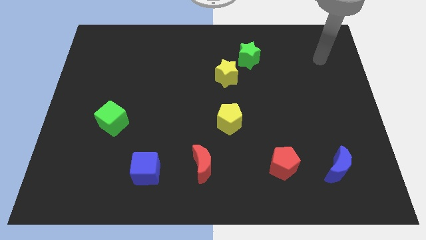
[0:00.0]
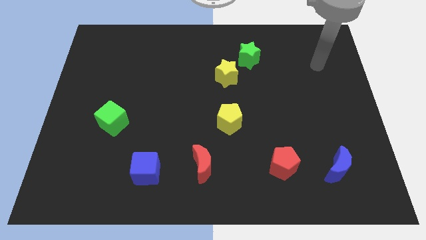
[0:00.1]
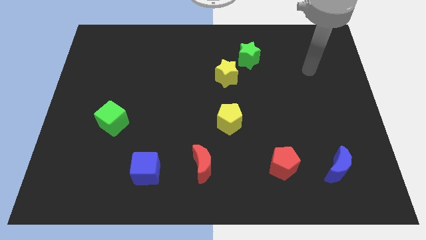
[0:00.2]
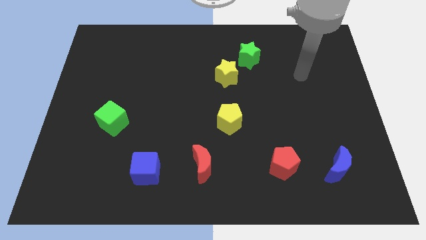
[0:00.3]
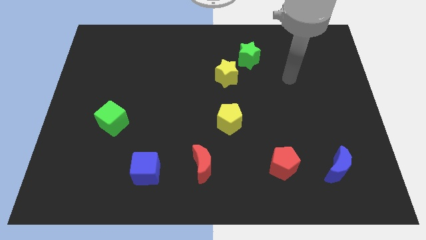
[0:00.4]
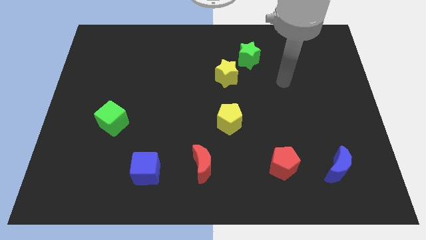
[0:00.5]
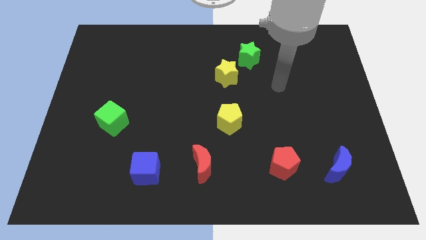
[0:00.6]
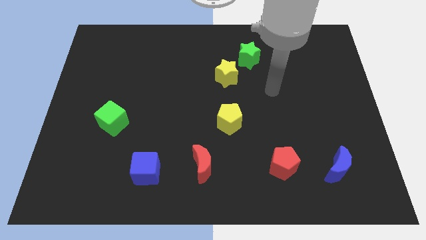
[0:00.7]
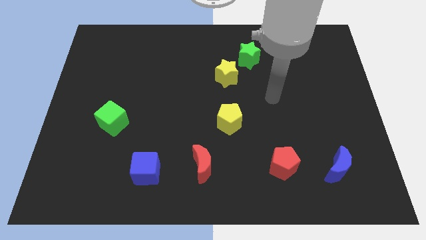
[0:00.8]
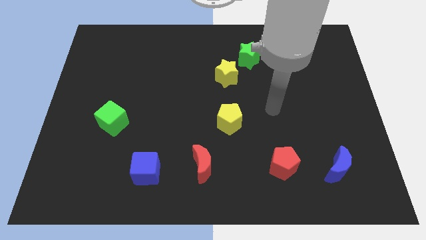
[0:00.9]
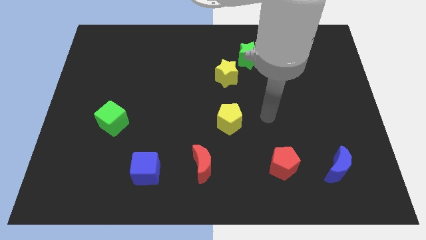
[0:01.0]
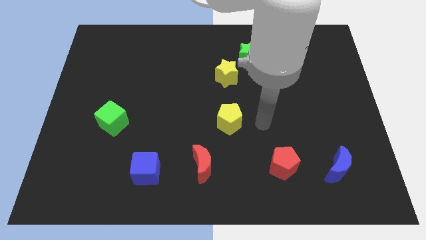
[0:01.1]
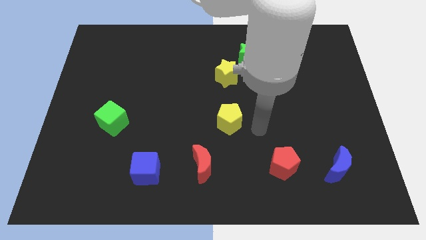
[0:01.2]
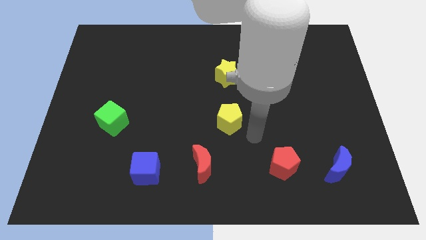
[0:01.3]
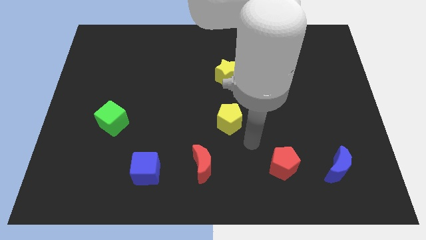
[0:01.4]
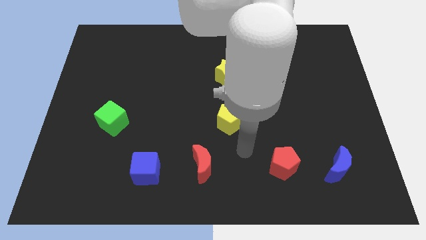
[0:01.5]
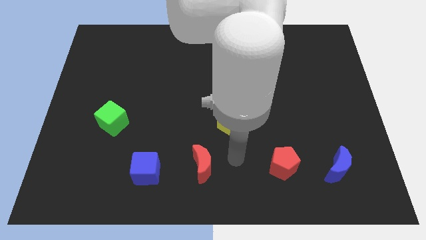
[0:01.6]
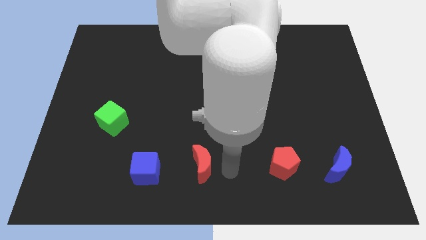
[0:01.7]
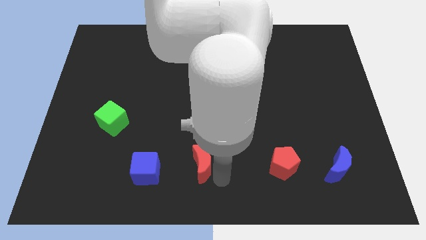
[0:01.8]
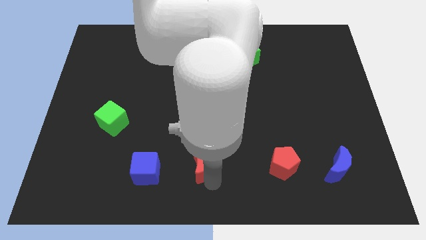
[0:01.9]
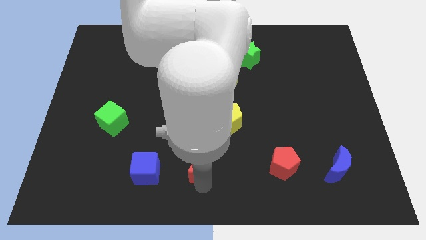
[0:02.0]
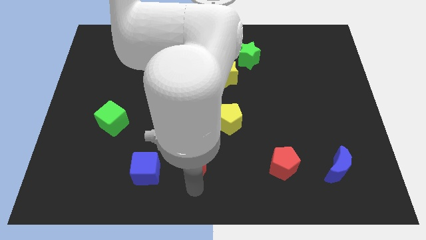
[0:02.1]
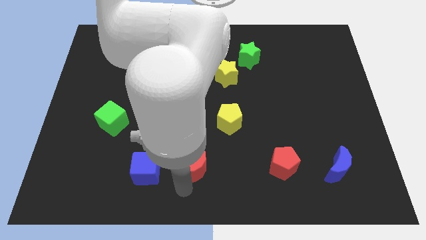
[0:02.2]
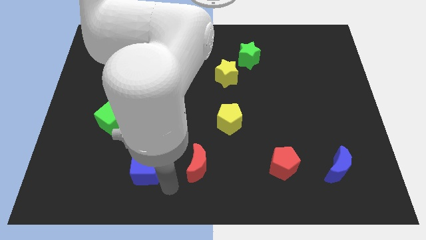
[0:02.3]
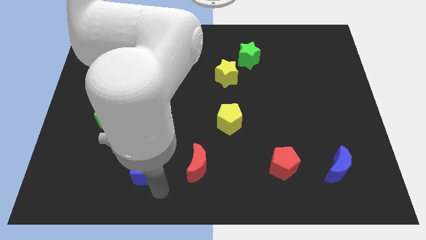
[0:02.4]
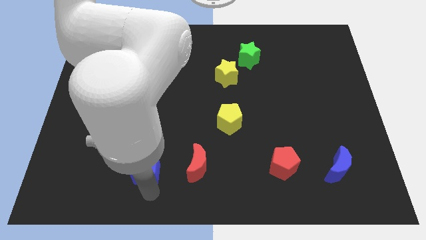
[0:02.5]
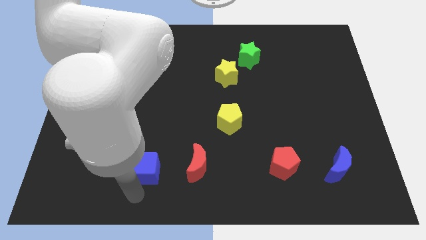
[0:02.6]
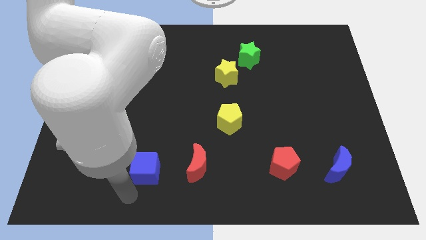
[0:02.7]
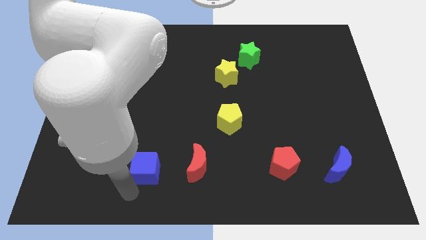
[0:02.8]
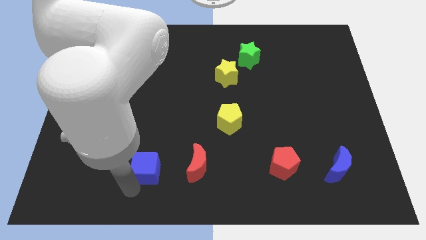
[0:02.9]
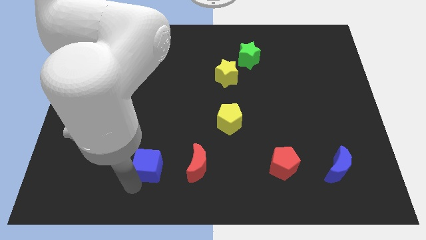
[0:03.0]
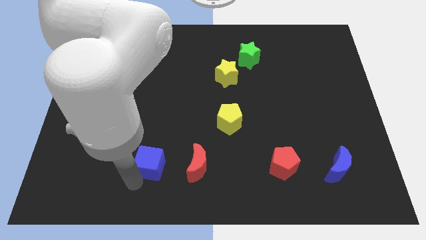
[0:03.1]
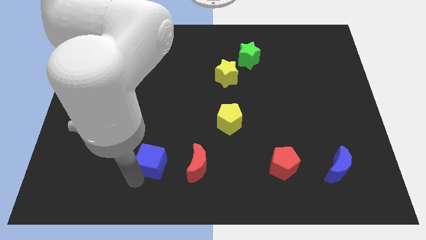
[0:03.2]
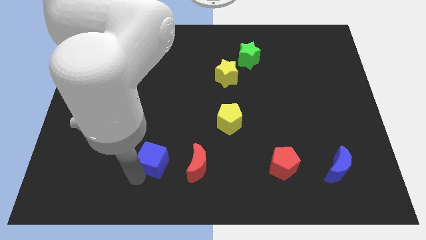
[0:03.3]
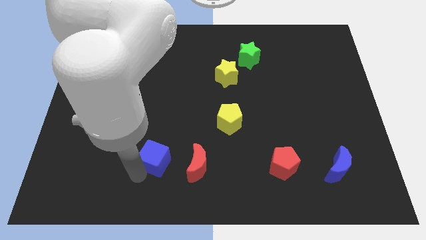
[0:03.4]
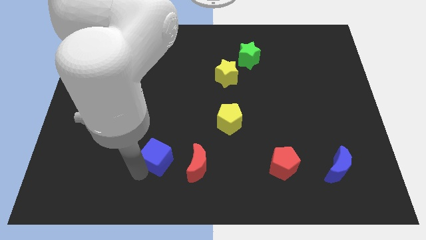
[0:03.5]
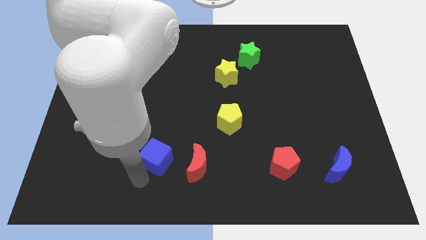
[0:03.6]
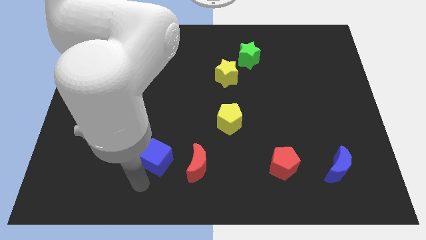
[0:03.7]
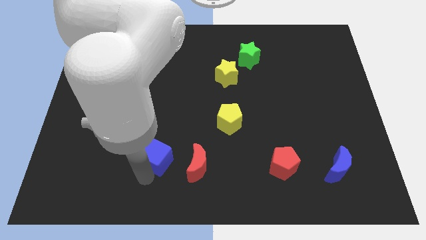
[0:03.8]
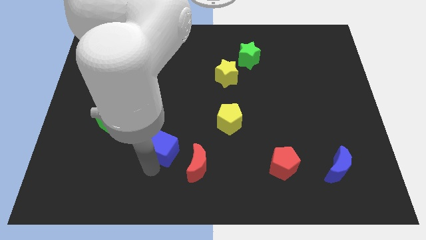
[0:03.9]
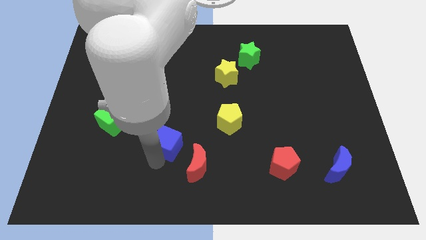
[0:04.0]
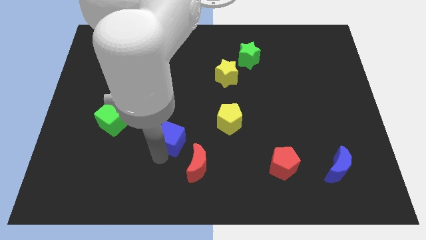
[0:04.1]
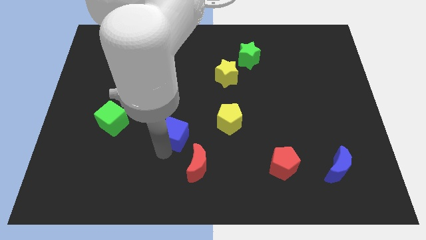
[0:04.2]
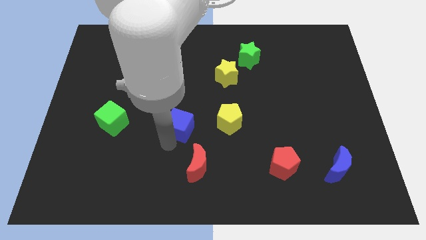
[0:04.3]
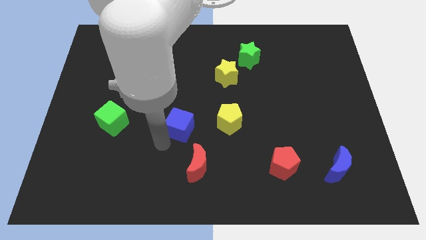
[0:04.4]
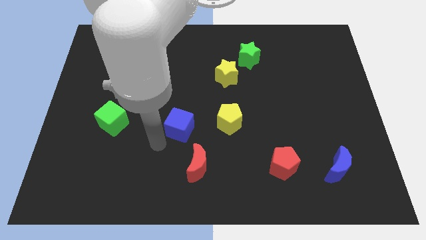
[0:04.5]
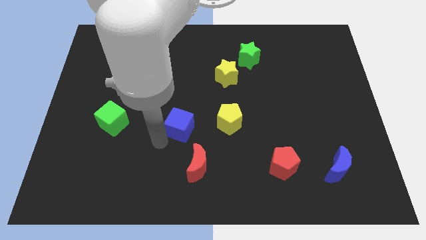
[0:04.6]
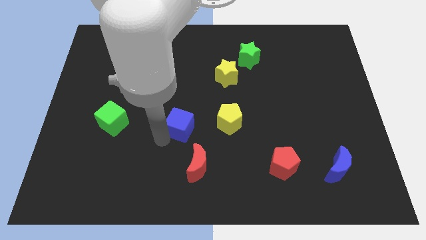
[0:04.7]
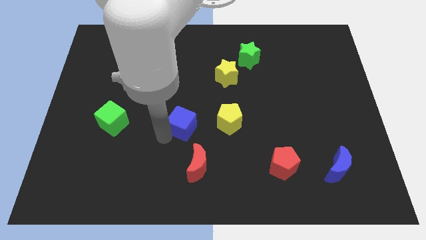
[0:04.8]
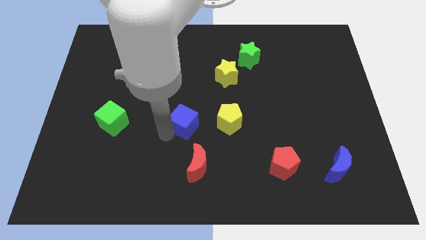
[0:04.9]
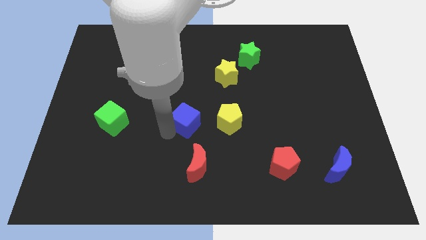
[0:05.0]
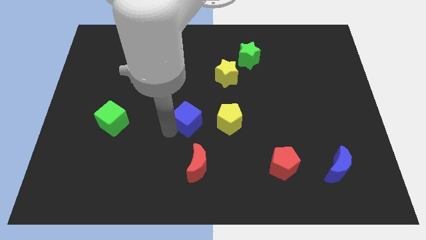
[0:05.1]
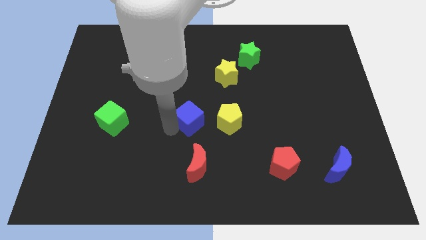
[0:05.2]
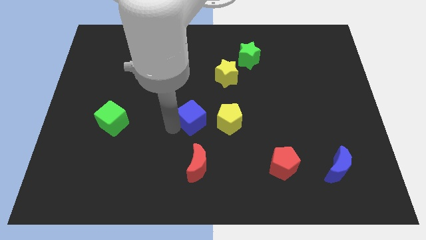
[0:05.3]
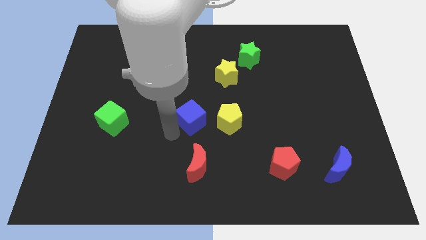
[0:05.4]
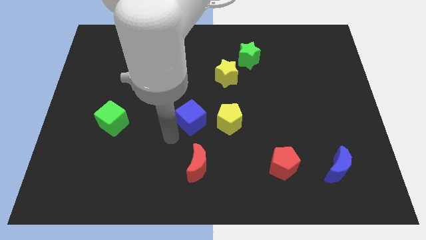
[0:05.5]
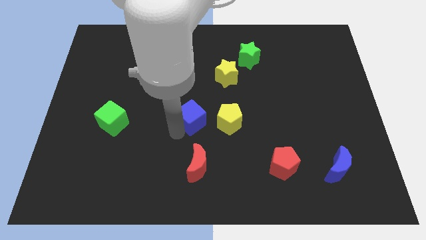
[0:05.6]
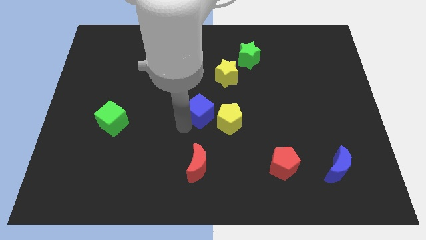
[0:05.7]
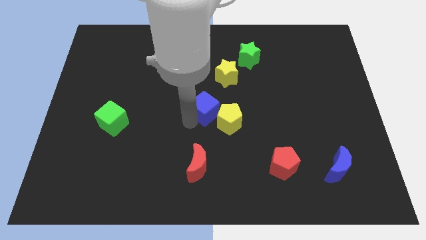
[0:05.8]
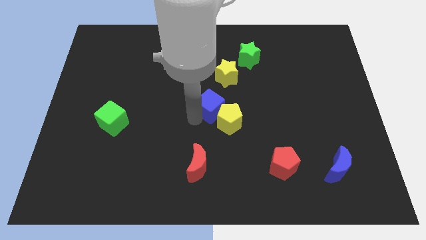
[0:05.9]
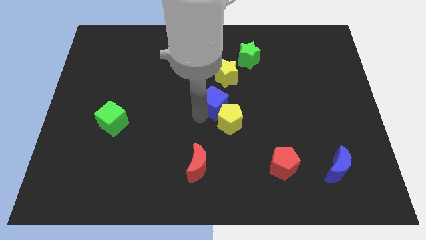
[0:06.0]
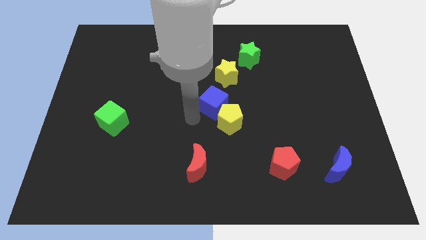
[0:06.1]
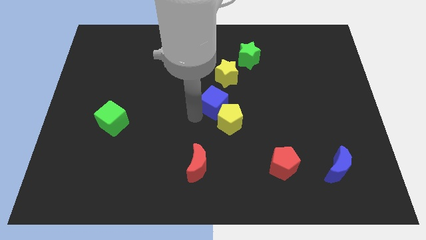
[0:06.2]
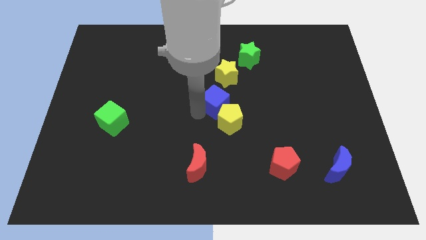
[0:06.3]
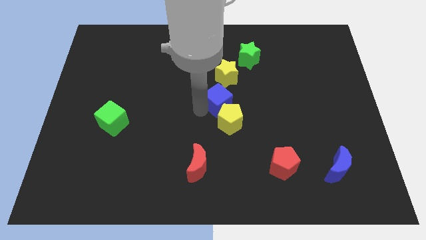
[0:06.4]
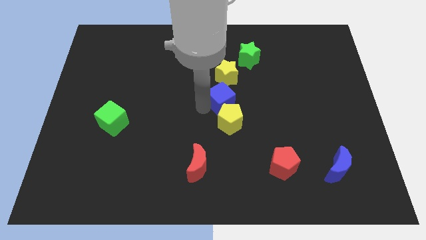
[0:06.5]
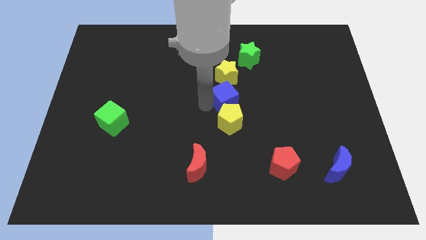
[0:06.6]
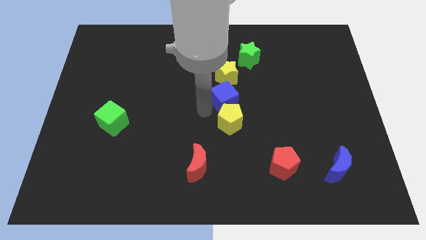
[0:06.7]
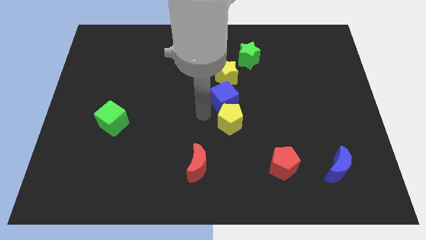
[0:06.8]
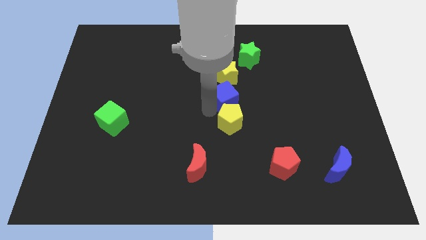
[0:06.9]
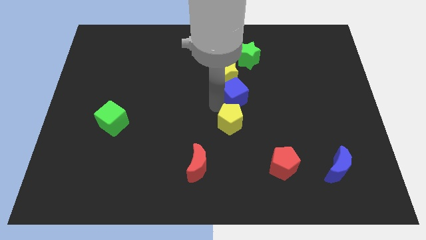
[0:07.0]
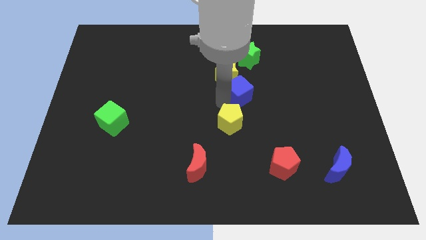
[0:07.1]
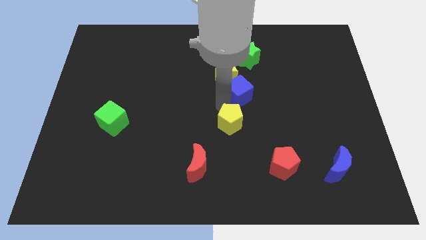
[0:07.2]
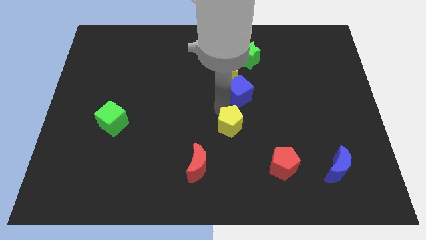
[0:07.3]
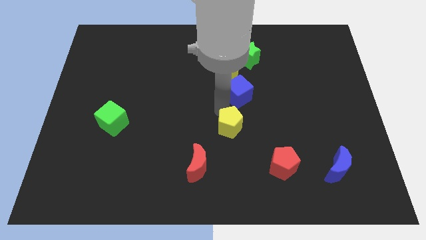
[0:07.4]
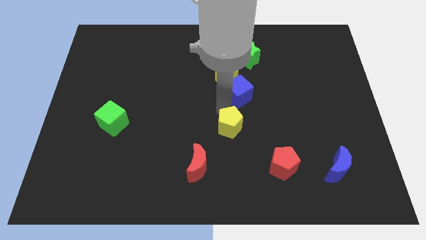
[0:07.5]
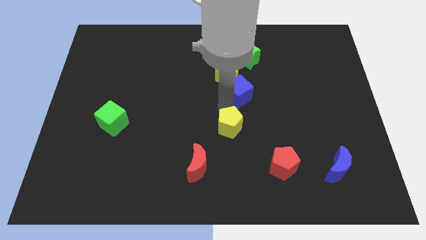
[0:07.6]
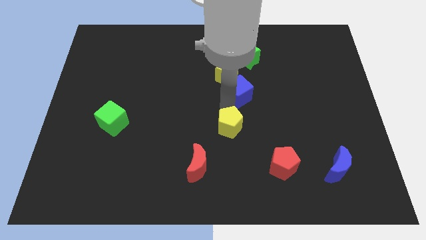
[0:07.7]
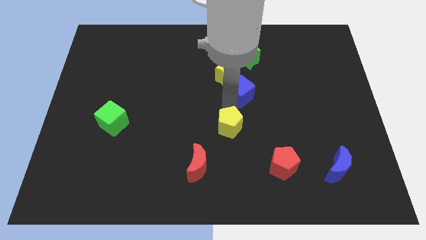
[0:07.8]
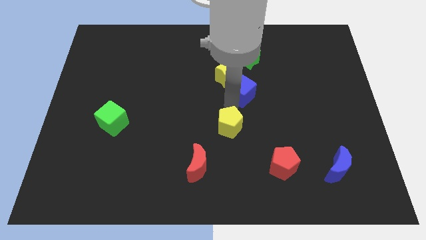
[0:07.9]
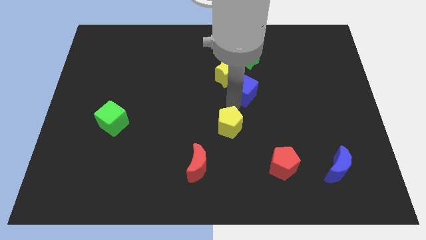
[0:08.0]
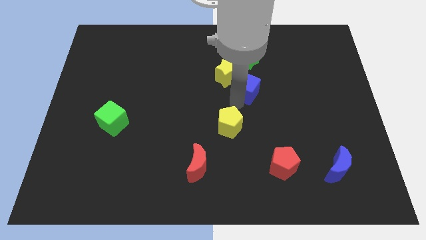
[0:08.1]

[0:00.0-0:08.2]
put the blue cube just right of the yellow star
